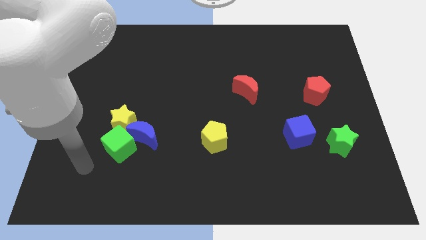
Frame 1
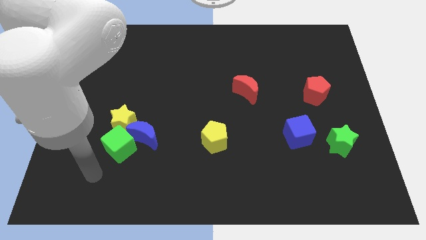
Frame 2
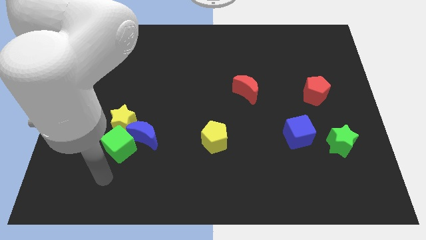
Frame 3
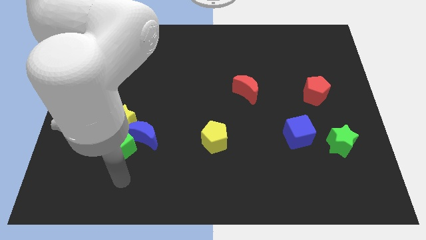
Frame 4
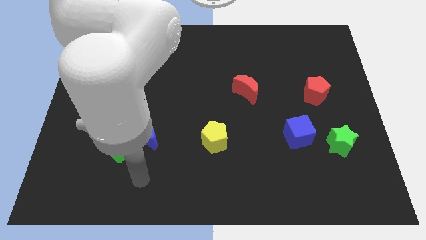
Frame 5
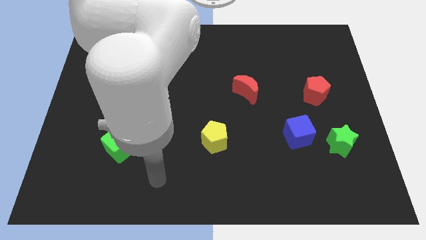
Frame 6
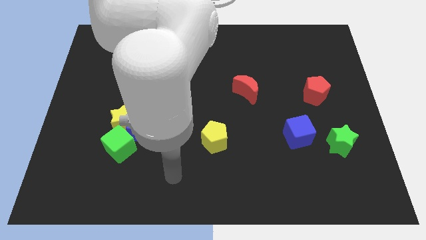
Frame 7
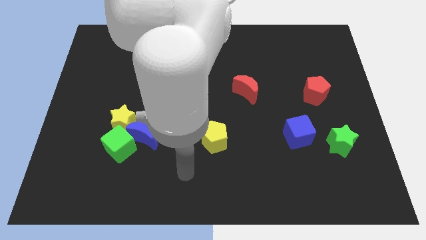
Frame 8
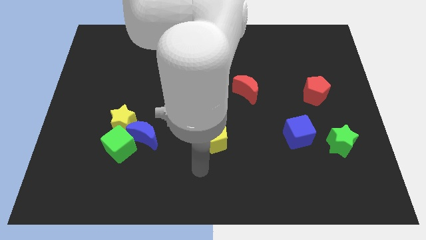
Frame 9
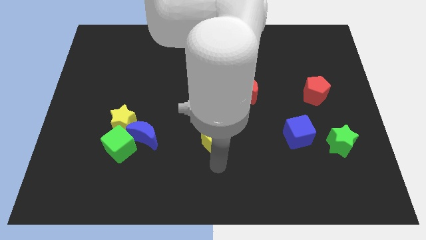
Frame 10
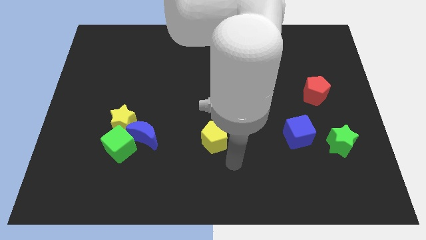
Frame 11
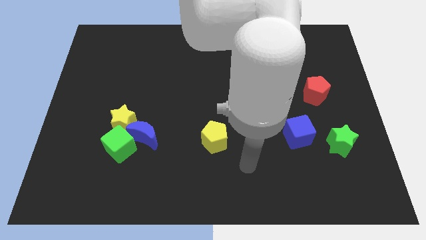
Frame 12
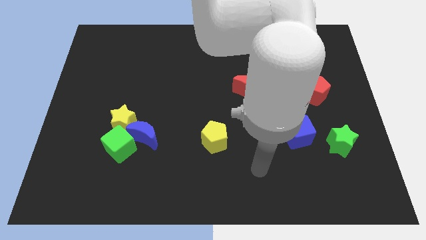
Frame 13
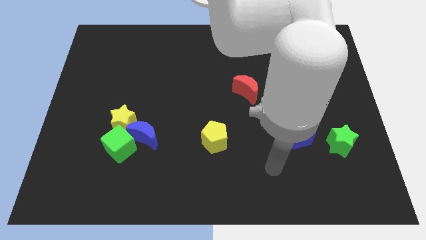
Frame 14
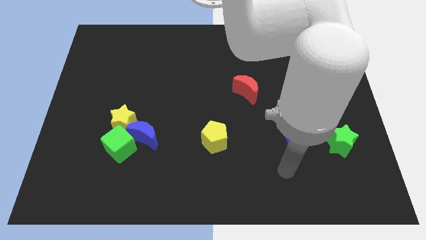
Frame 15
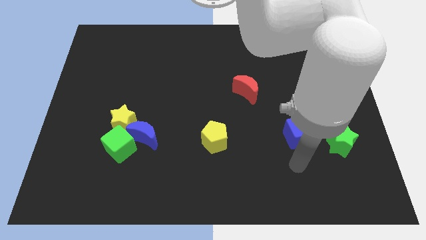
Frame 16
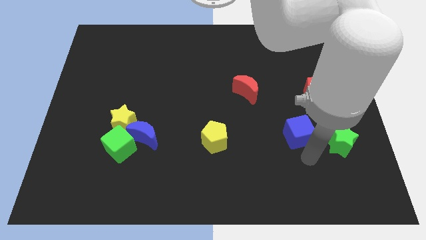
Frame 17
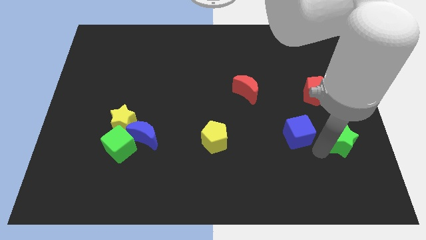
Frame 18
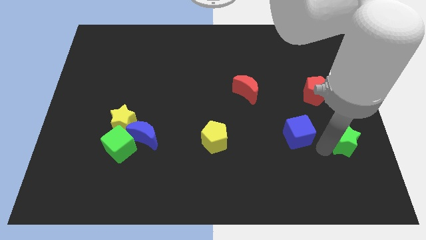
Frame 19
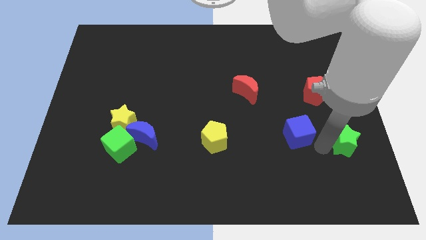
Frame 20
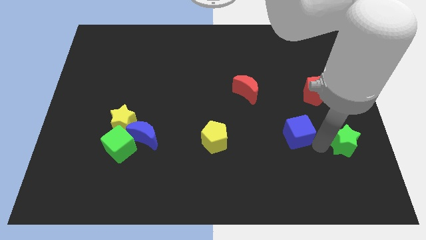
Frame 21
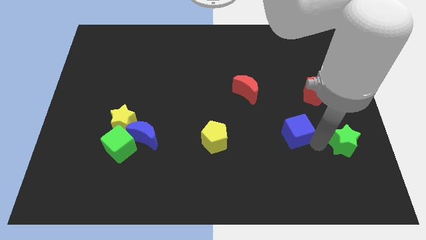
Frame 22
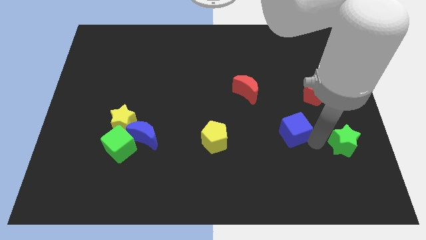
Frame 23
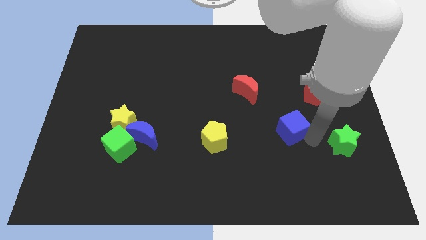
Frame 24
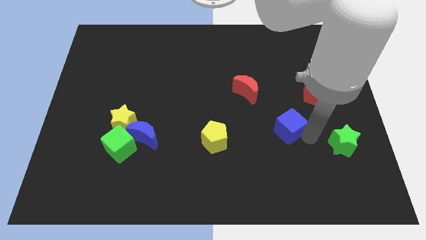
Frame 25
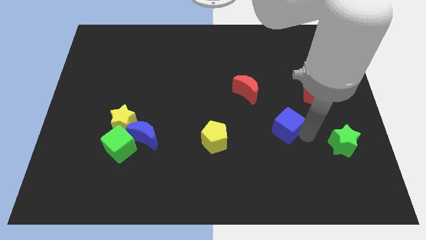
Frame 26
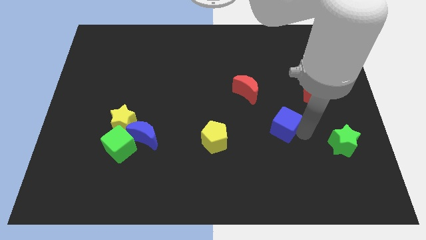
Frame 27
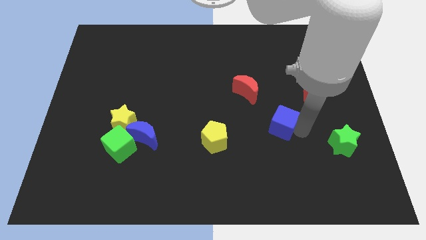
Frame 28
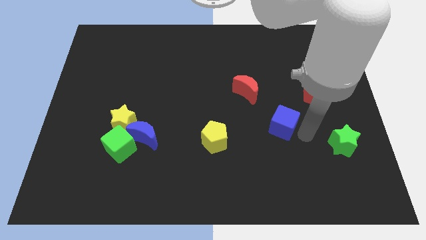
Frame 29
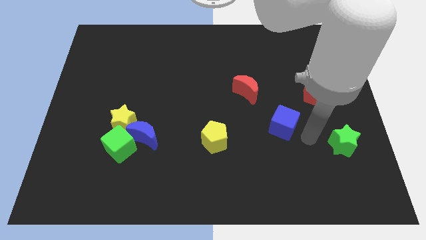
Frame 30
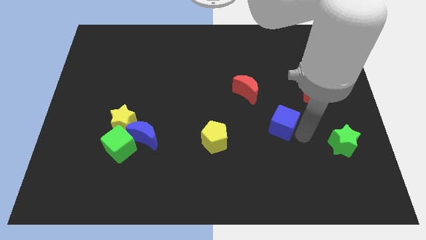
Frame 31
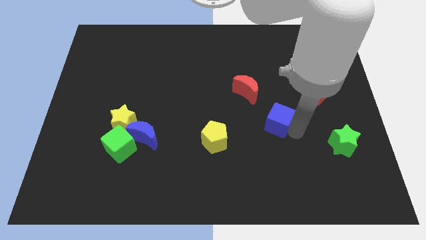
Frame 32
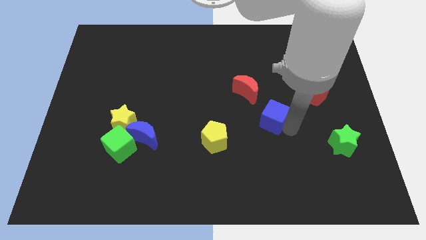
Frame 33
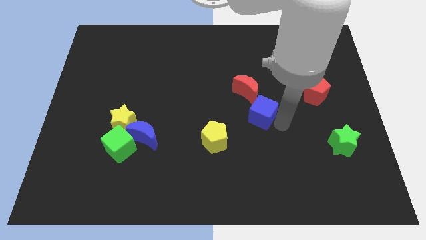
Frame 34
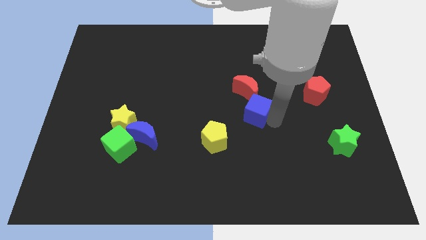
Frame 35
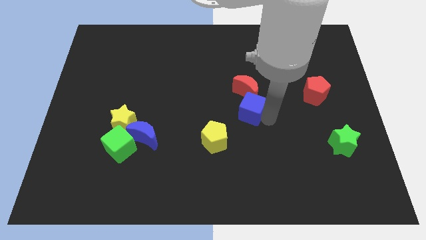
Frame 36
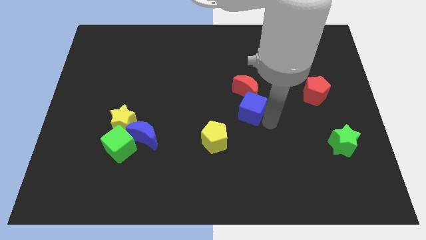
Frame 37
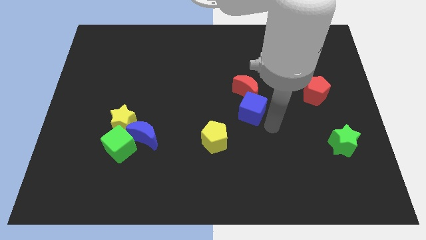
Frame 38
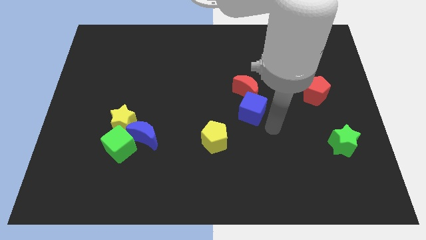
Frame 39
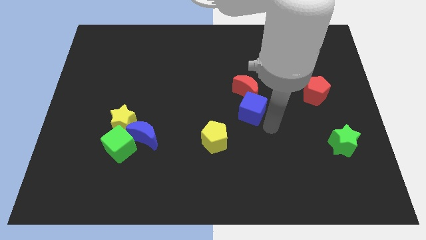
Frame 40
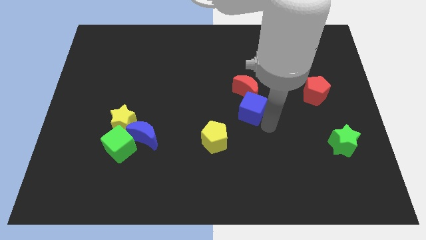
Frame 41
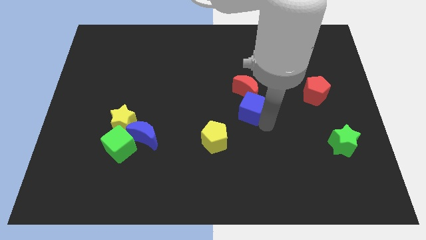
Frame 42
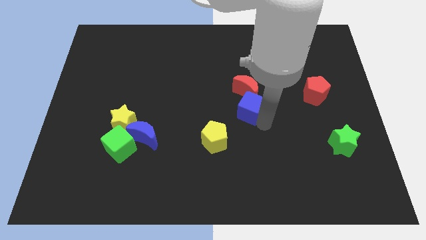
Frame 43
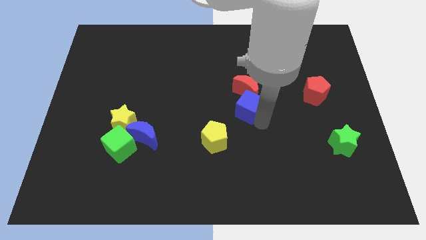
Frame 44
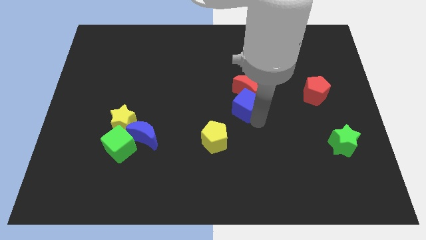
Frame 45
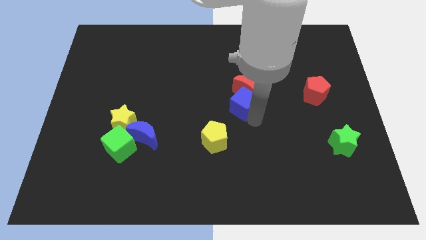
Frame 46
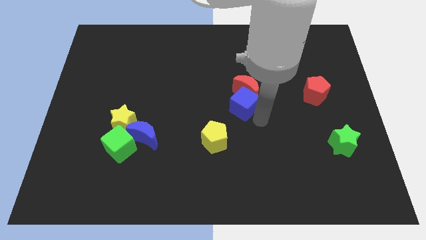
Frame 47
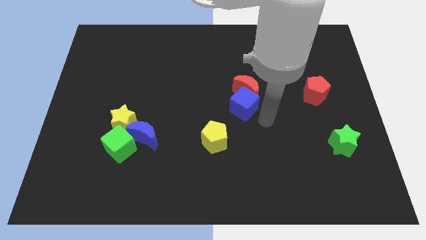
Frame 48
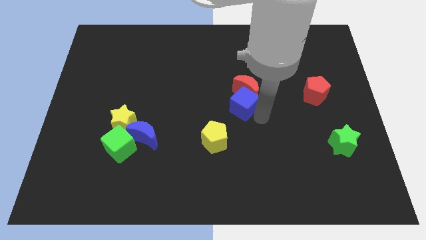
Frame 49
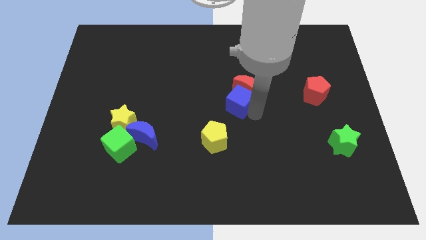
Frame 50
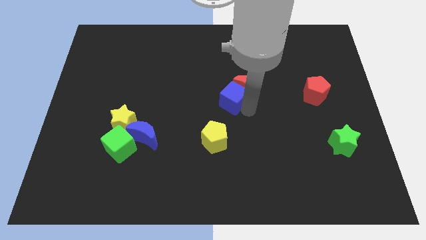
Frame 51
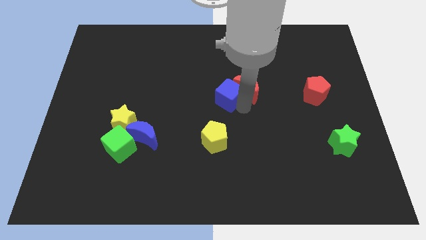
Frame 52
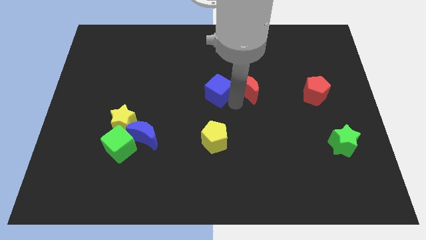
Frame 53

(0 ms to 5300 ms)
slide the blue cube up and then left

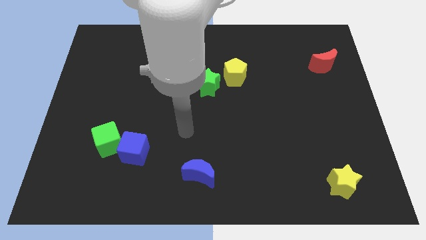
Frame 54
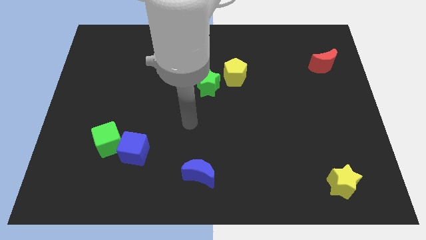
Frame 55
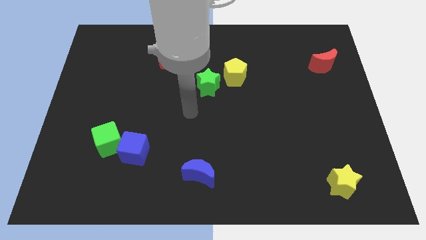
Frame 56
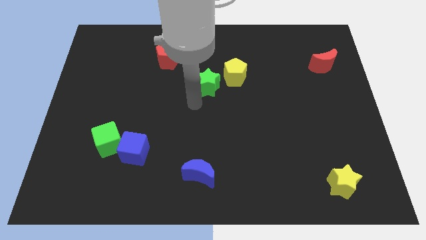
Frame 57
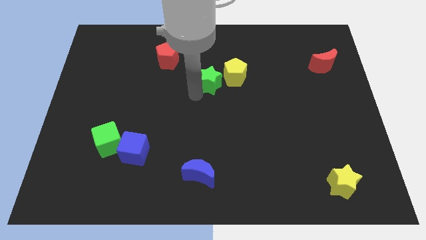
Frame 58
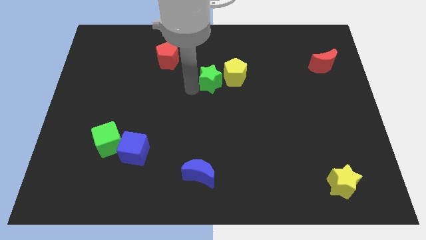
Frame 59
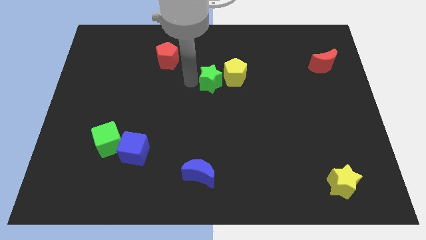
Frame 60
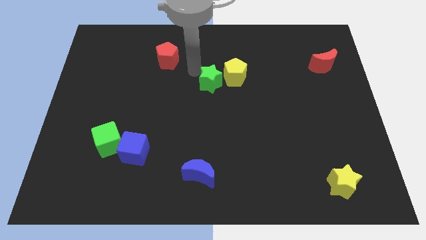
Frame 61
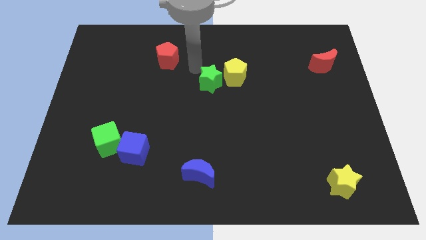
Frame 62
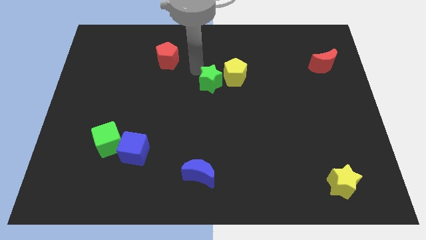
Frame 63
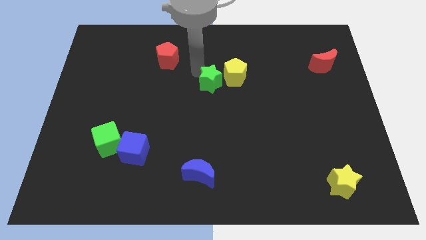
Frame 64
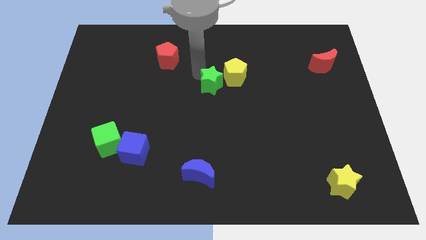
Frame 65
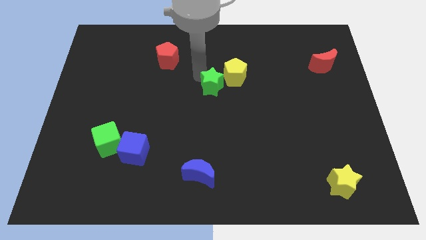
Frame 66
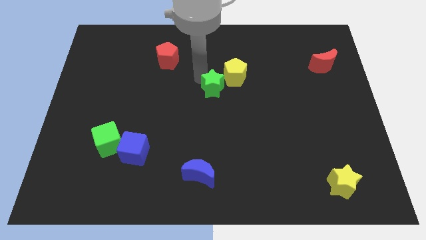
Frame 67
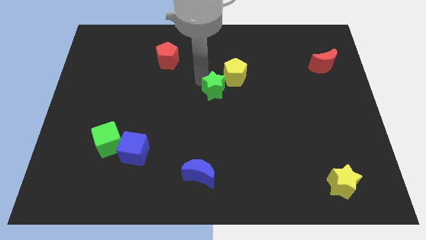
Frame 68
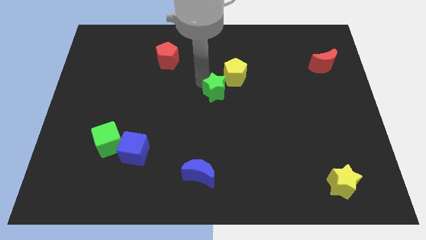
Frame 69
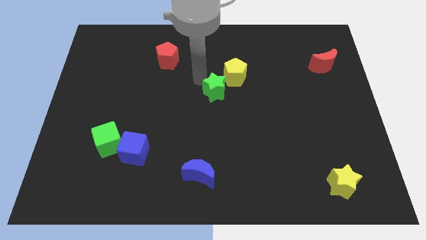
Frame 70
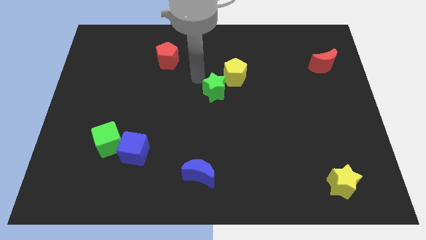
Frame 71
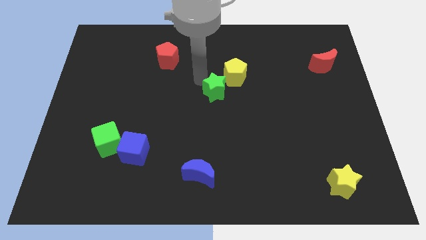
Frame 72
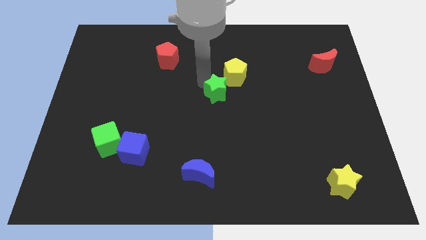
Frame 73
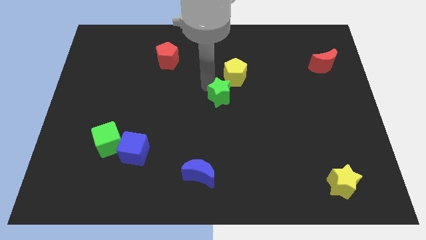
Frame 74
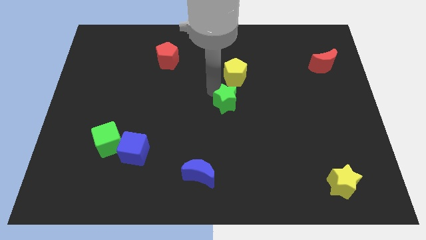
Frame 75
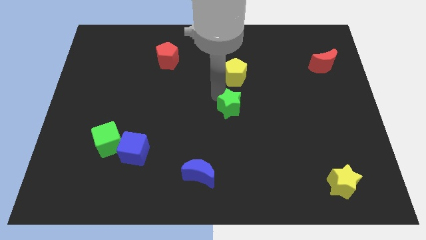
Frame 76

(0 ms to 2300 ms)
slightly slide the green star downwards and then right

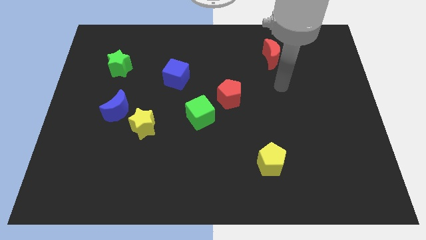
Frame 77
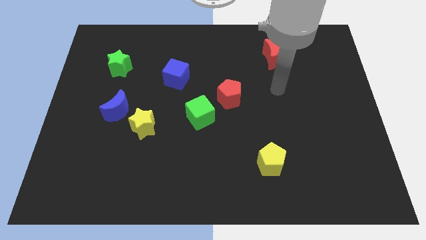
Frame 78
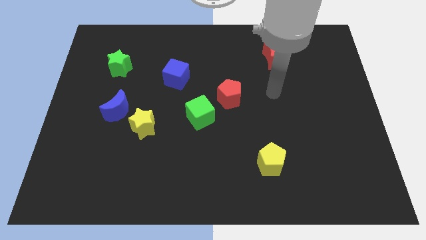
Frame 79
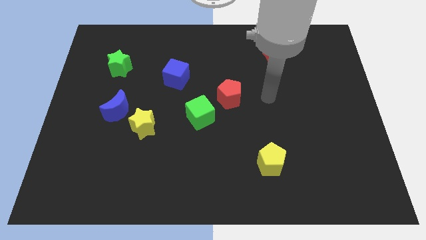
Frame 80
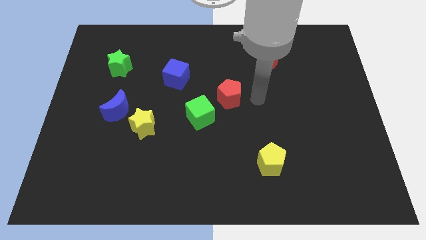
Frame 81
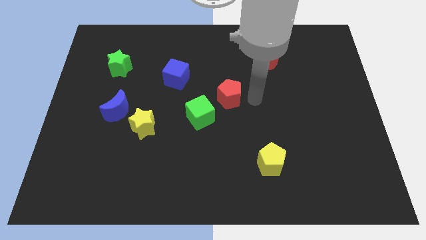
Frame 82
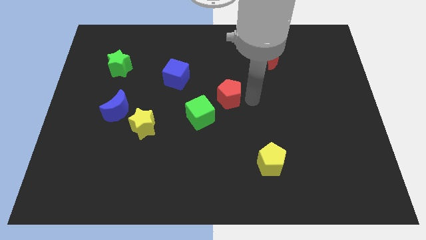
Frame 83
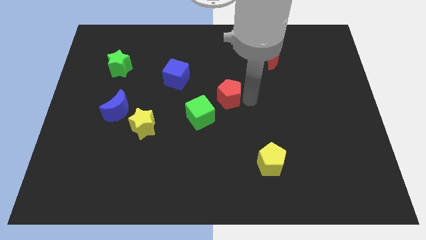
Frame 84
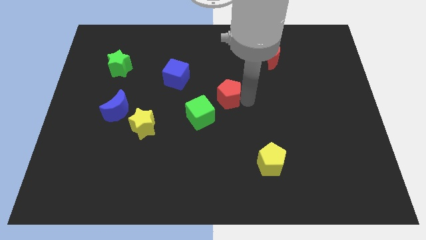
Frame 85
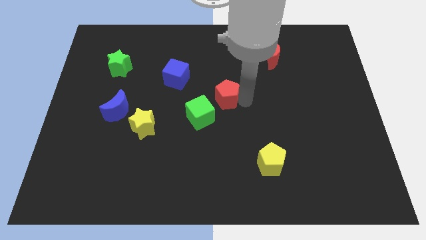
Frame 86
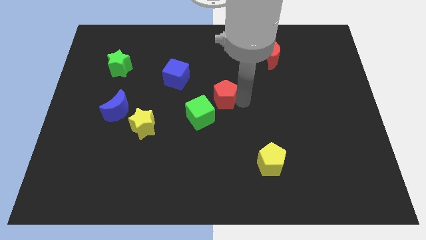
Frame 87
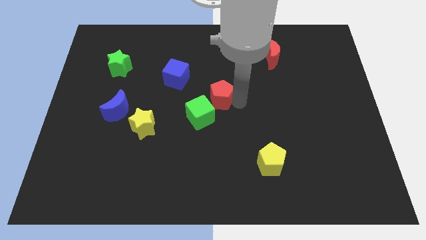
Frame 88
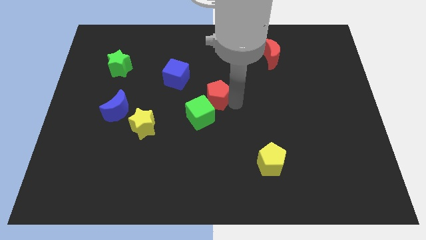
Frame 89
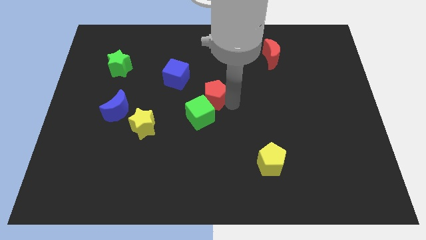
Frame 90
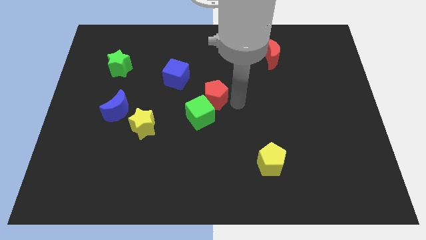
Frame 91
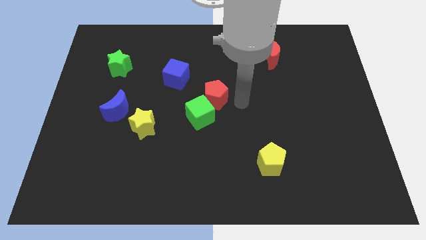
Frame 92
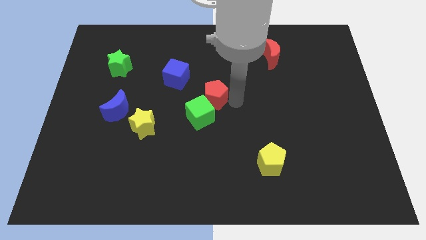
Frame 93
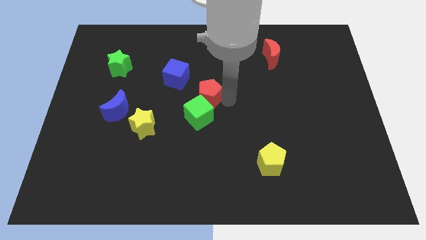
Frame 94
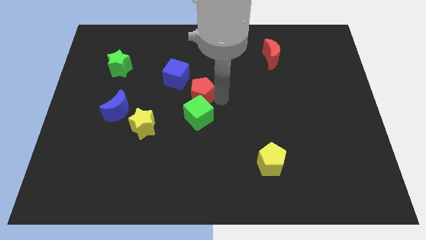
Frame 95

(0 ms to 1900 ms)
move the red pentagon somewhat left
